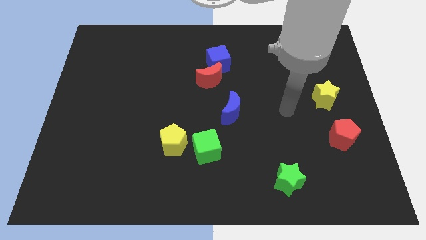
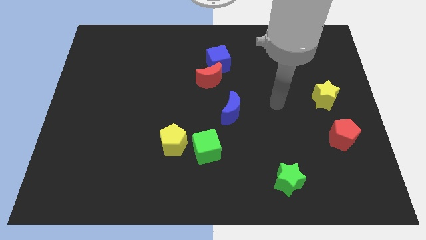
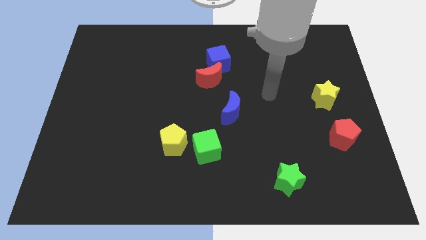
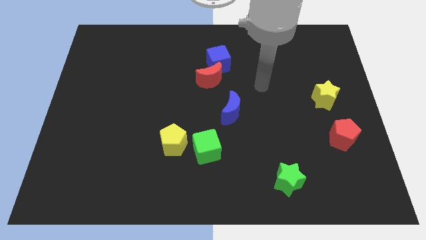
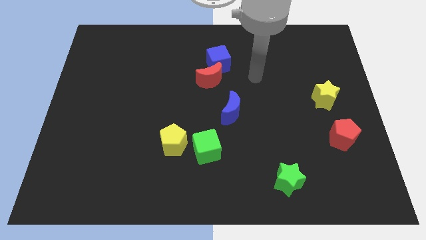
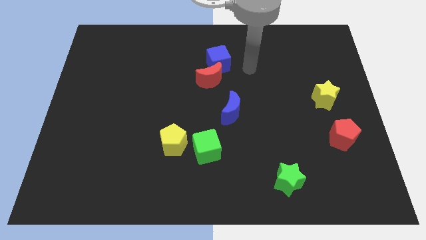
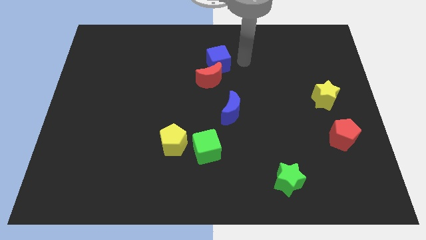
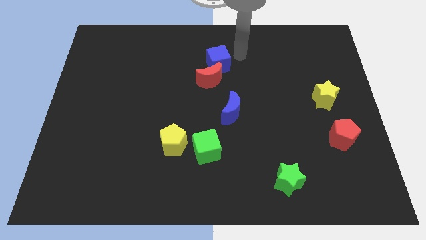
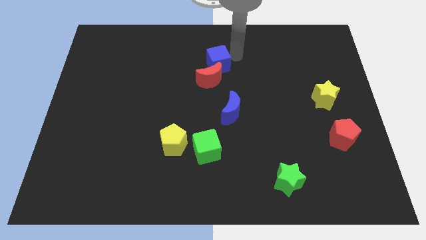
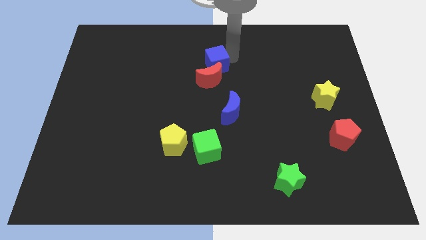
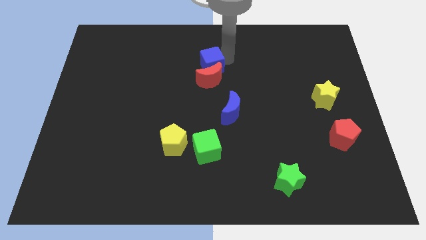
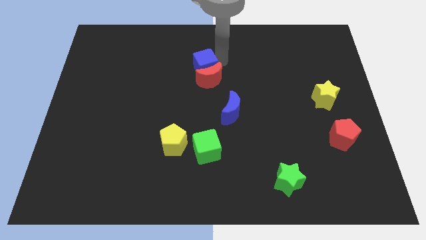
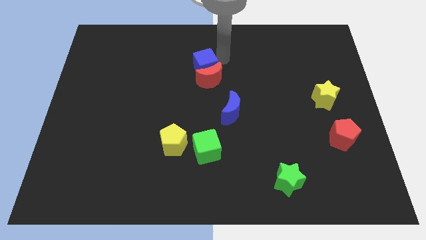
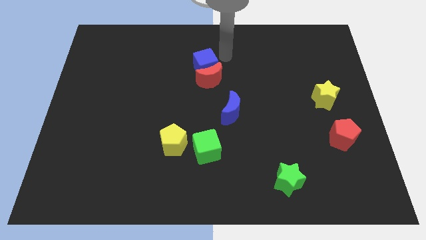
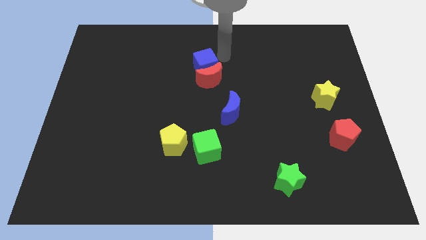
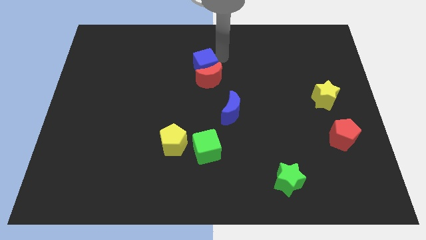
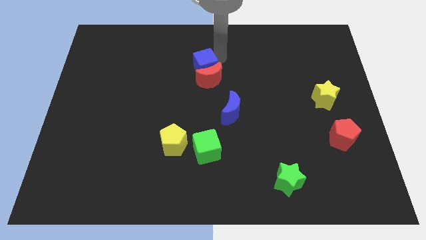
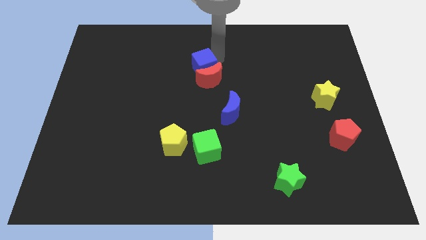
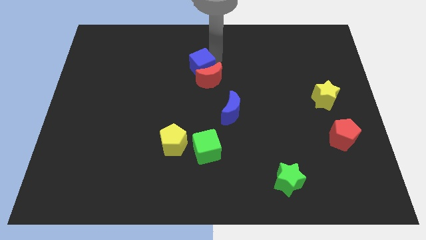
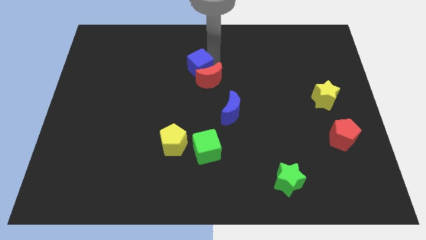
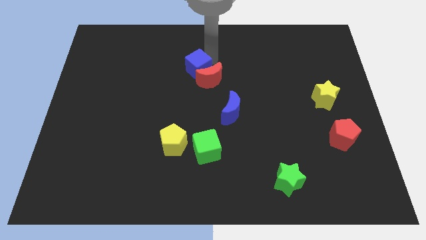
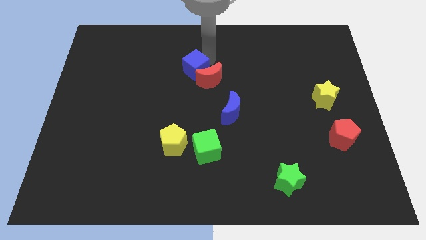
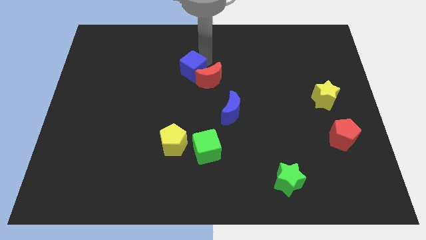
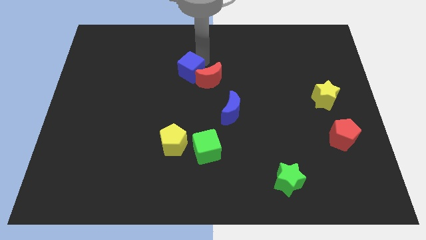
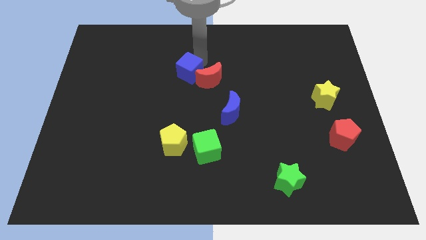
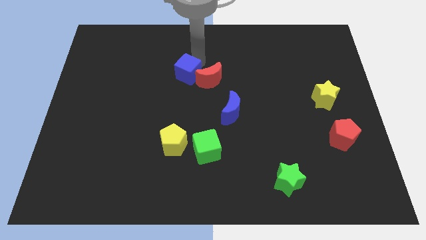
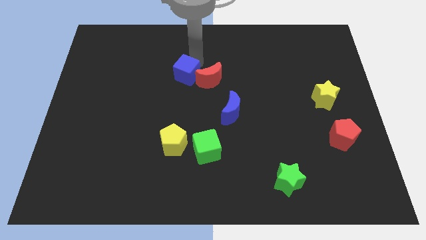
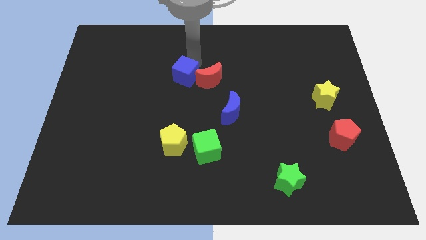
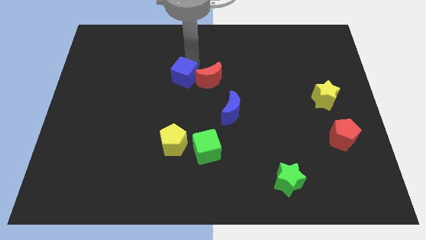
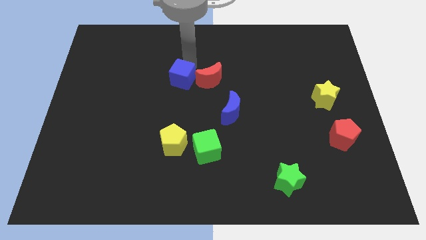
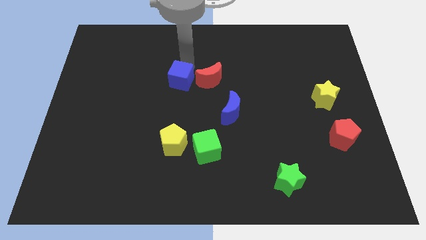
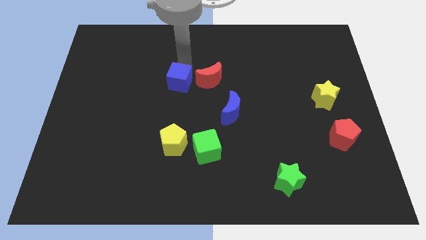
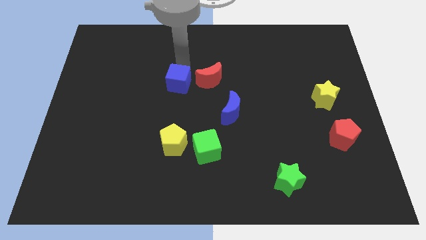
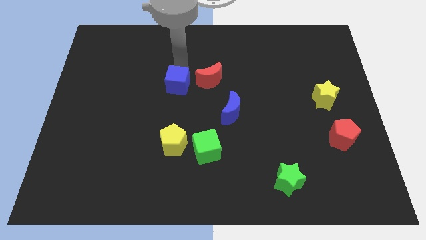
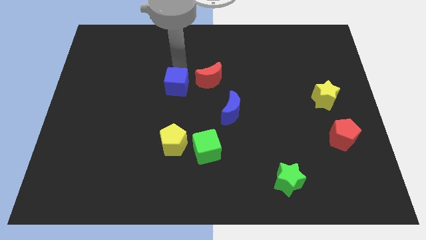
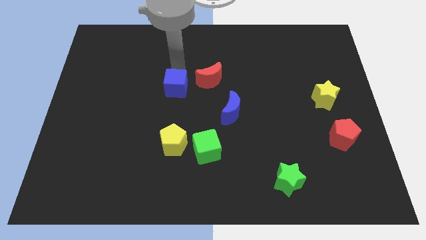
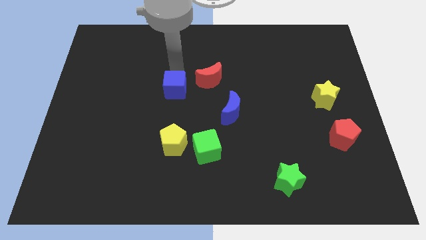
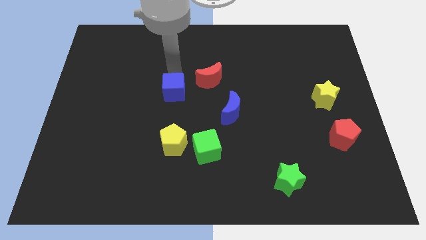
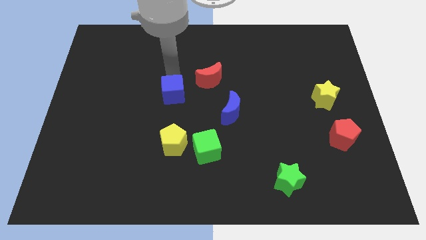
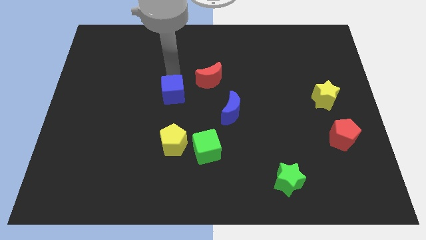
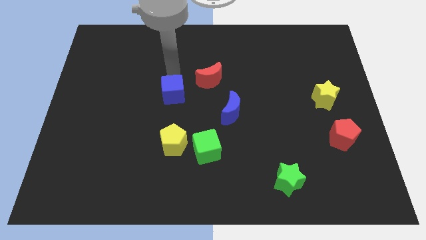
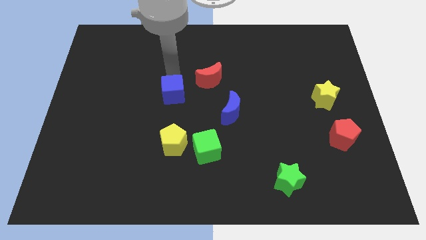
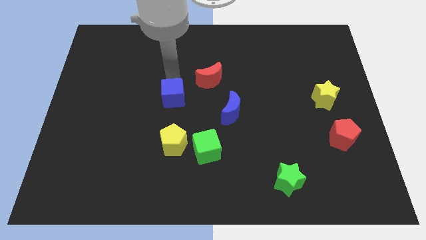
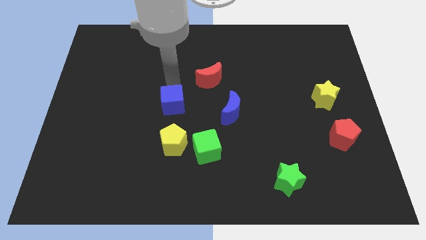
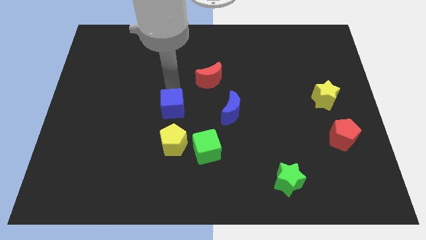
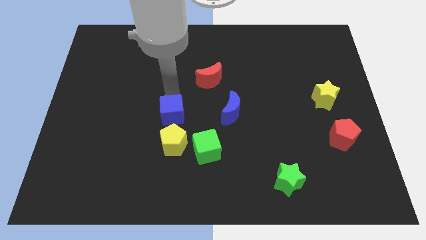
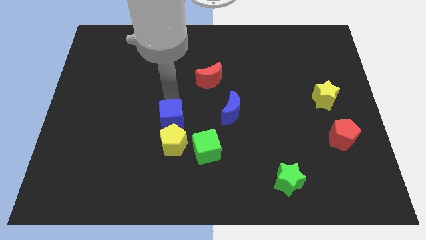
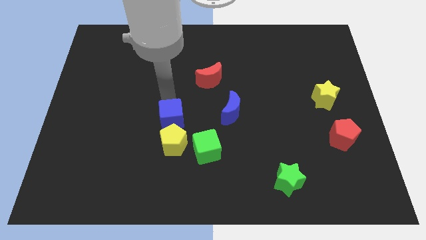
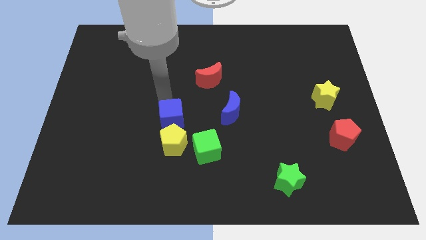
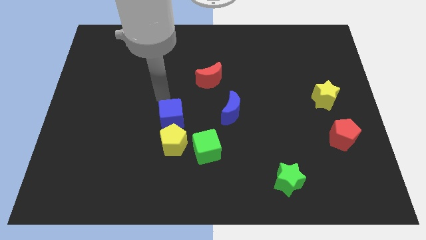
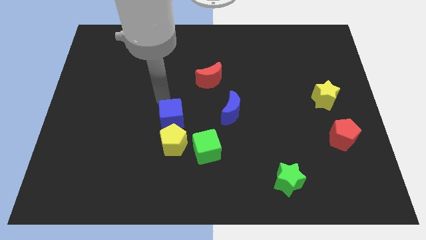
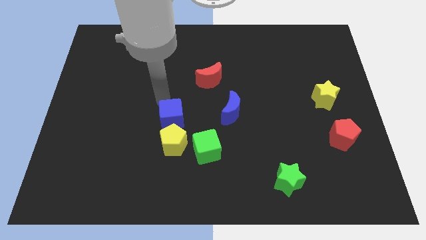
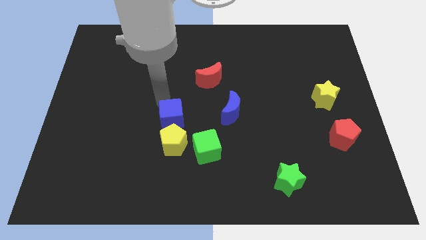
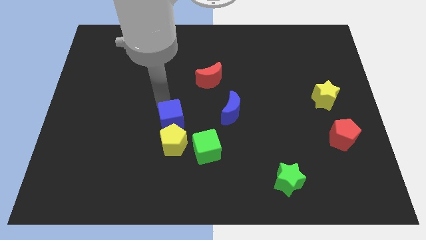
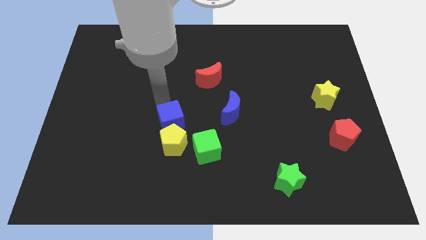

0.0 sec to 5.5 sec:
slide the blue cube towards the yellow pentagon

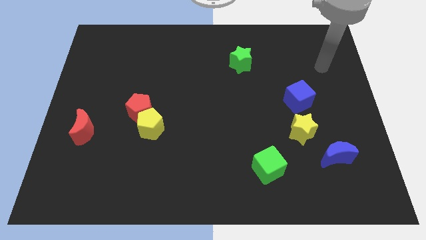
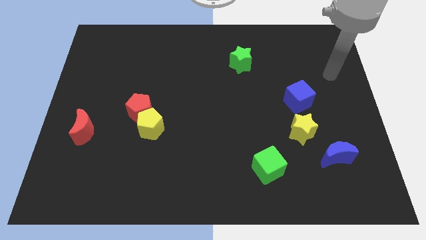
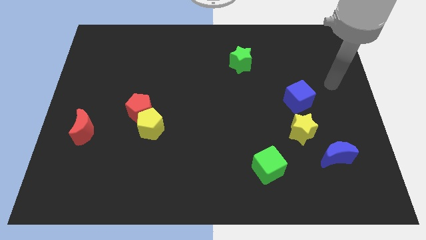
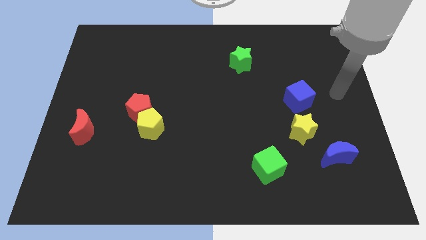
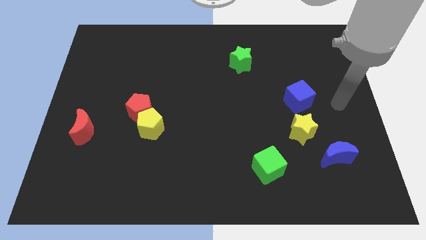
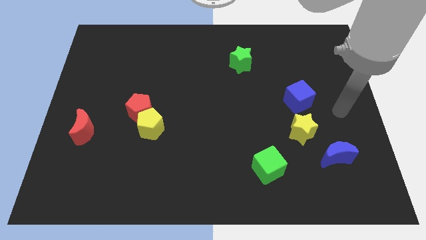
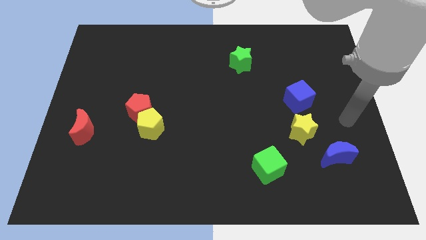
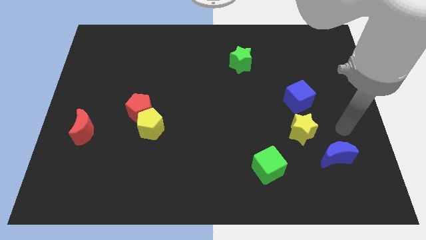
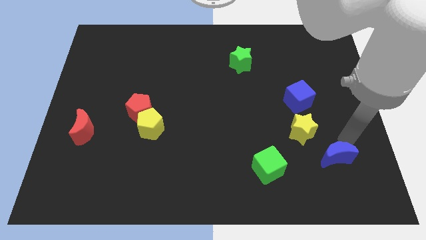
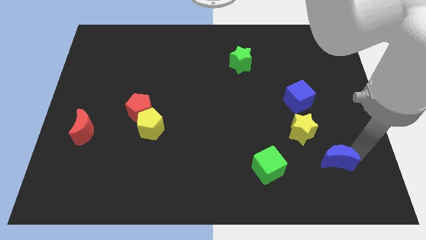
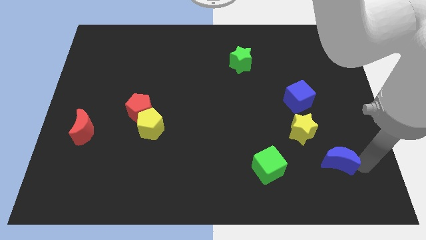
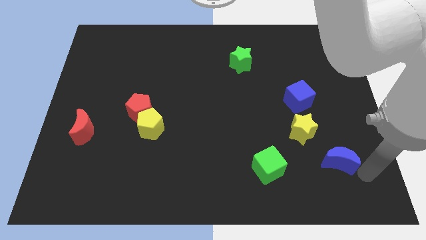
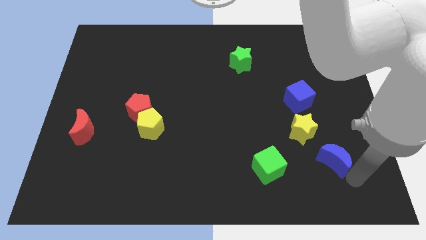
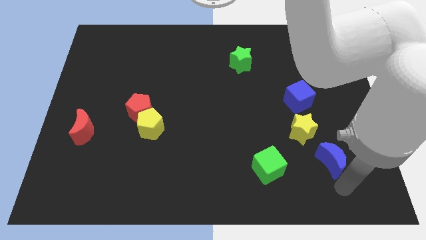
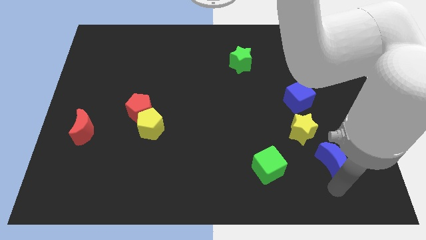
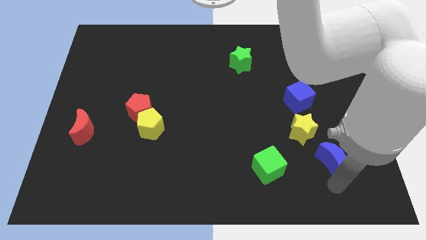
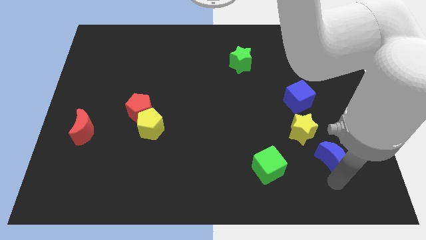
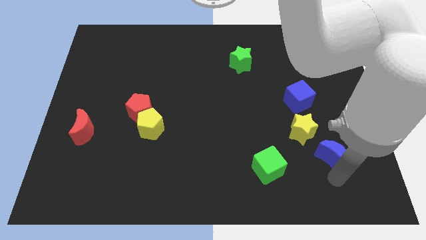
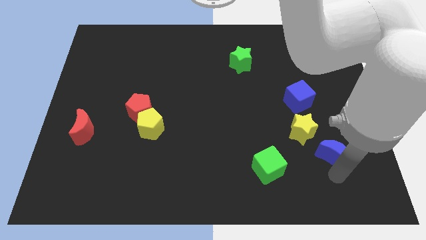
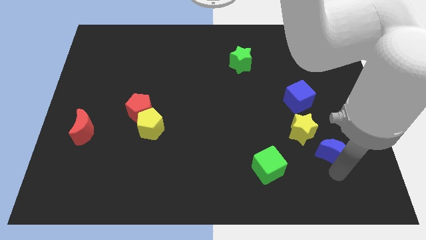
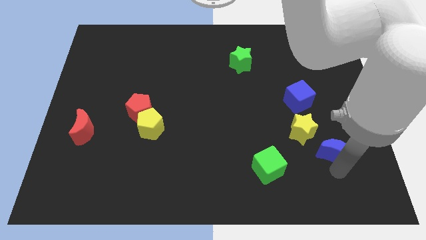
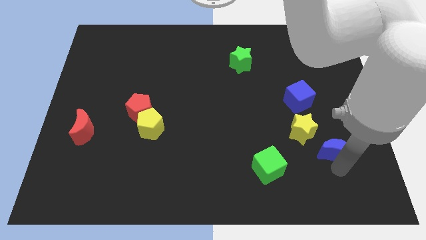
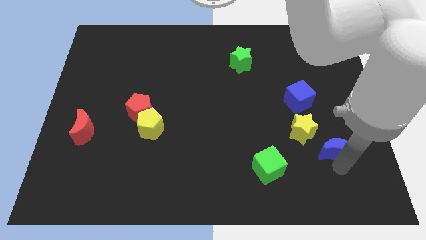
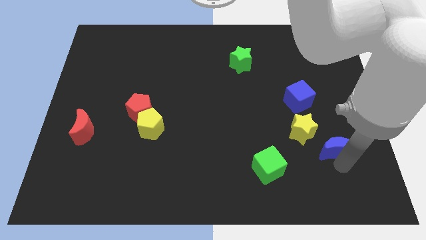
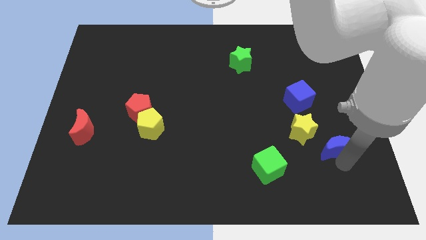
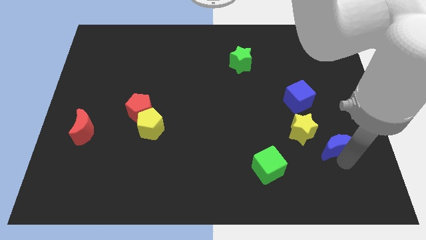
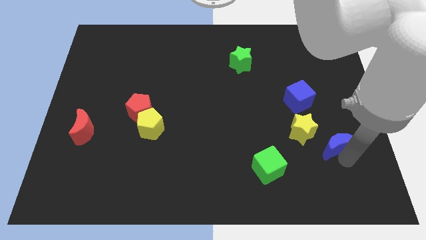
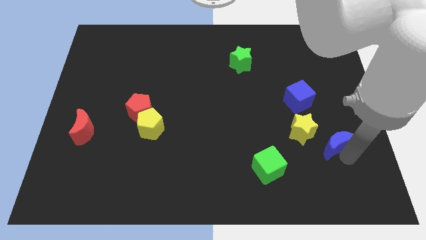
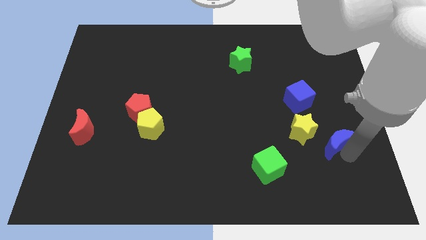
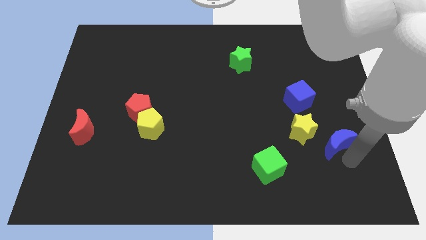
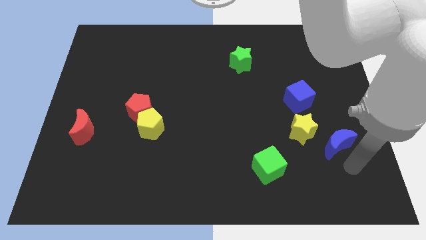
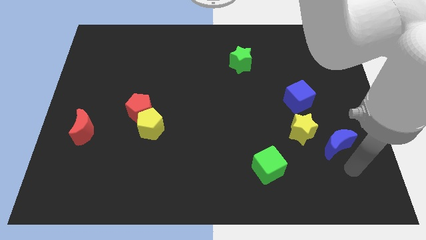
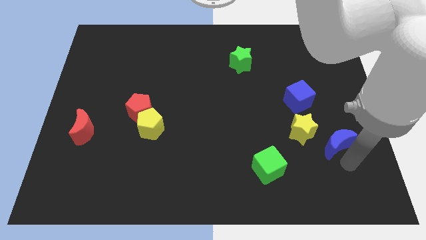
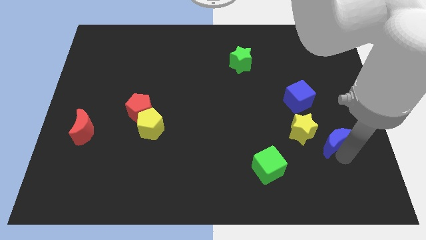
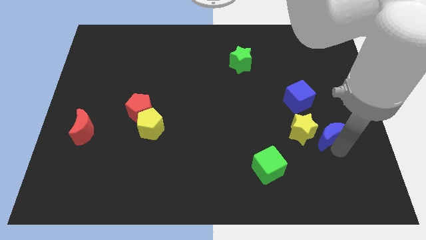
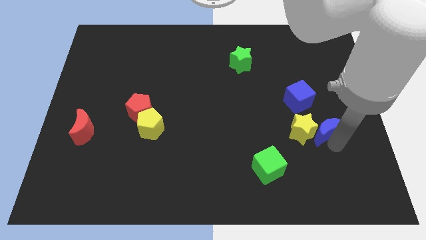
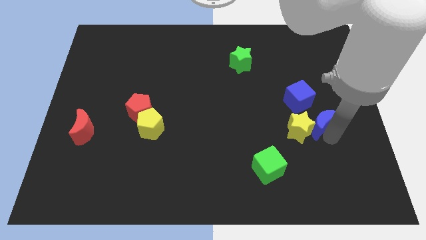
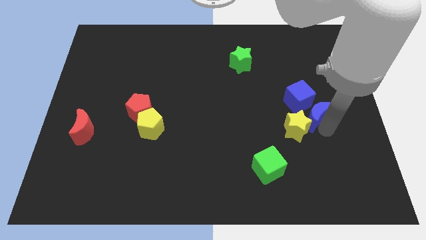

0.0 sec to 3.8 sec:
move the blue moon towards the blue cube
